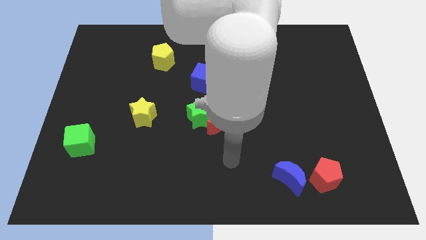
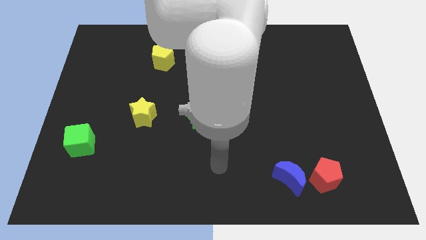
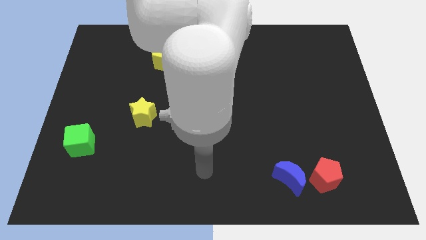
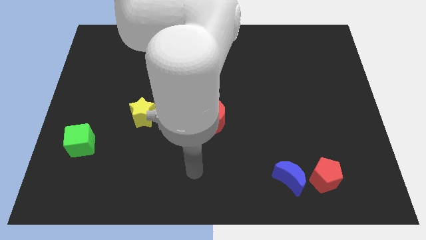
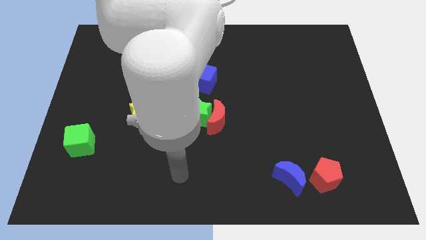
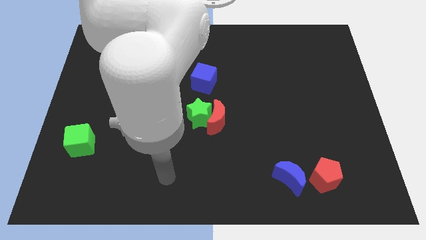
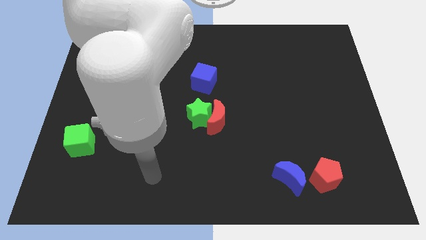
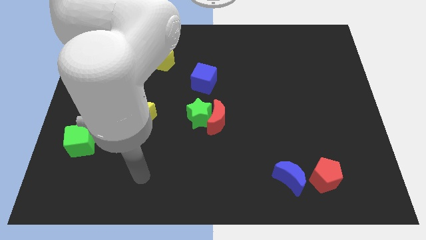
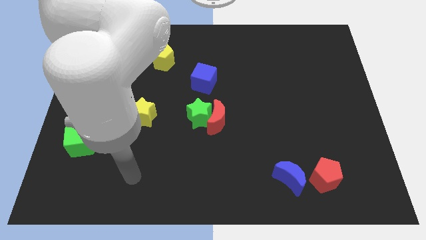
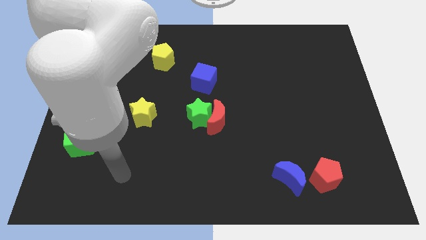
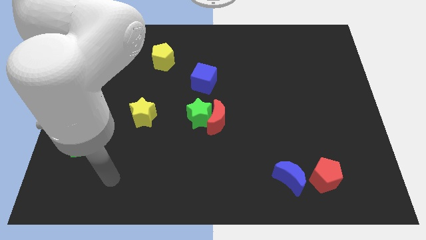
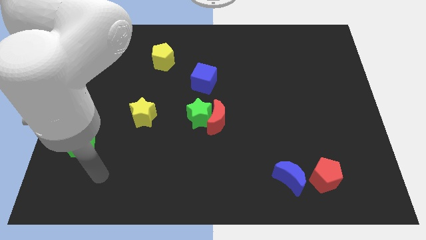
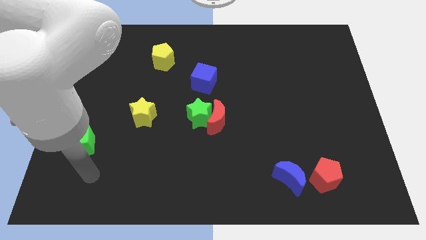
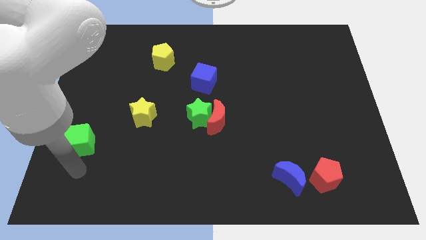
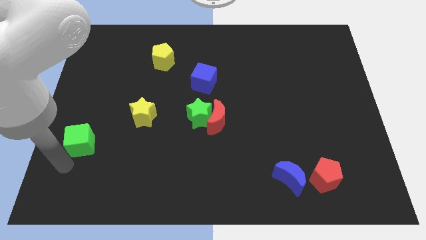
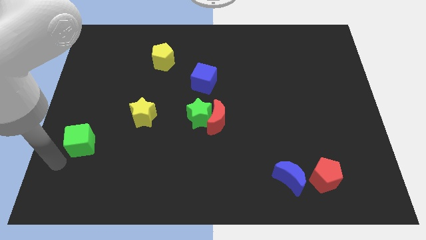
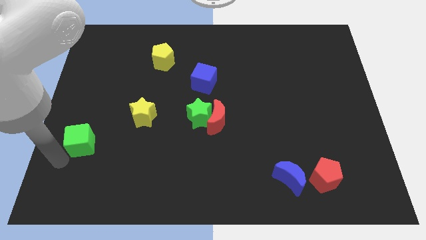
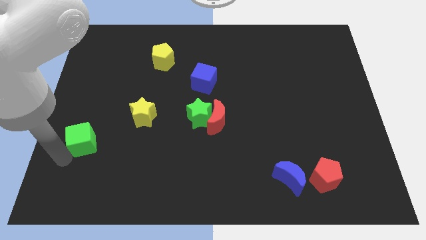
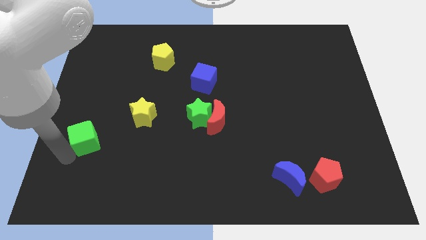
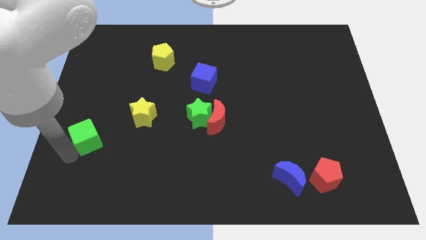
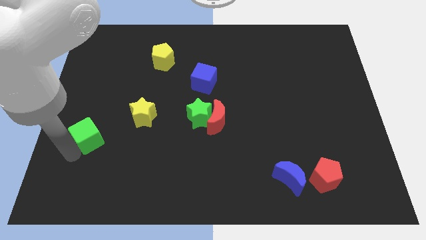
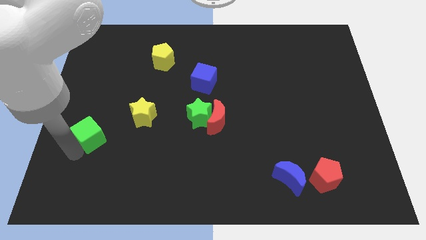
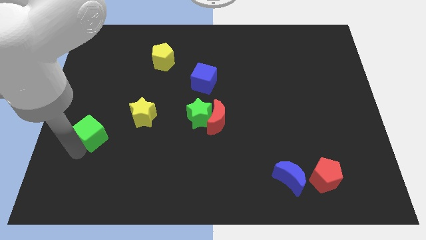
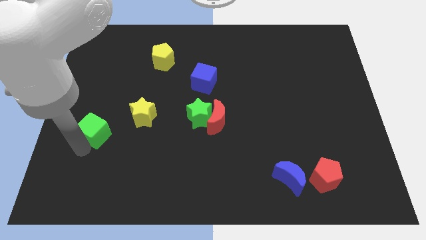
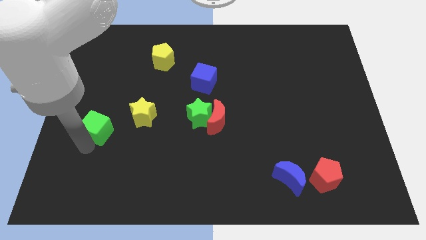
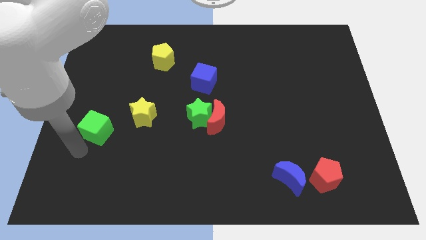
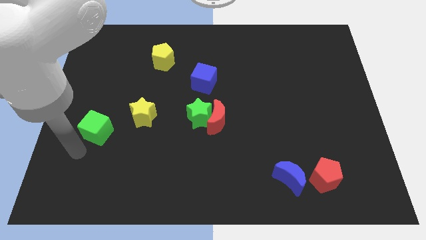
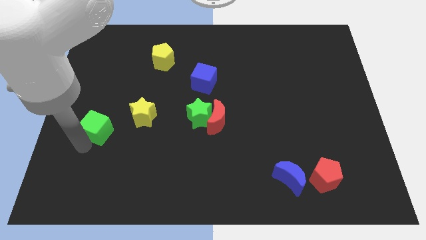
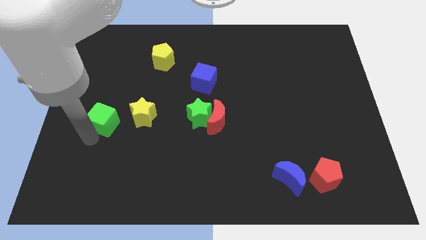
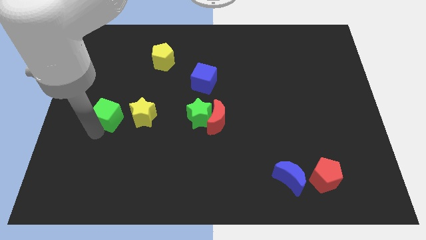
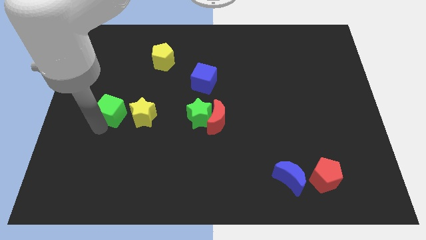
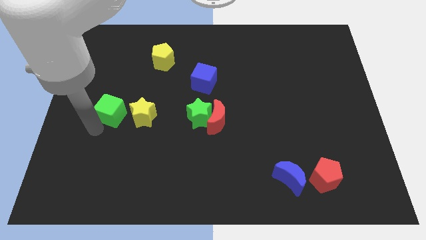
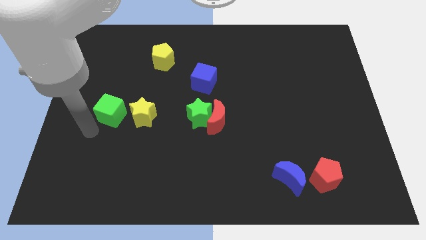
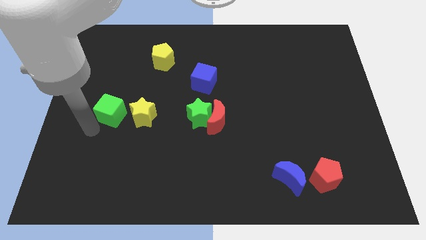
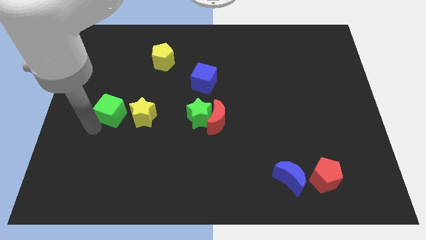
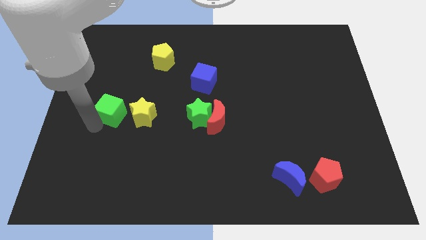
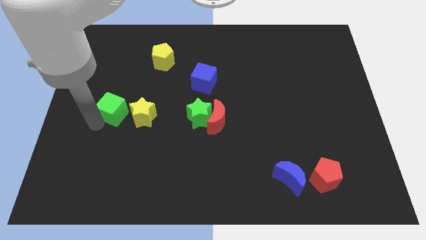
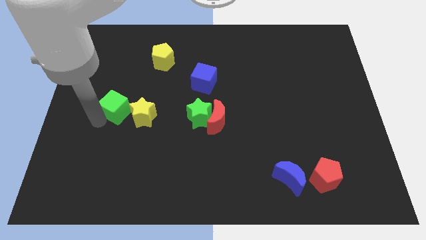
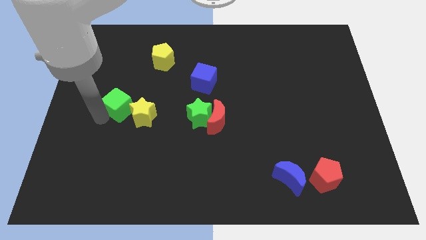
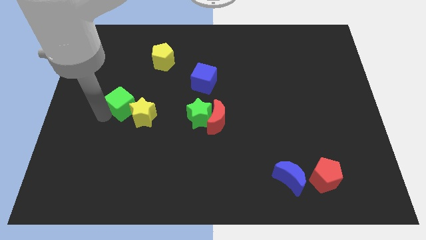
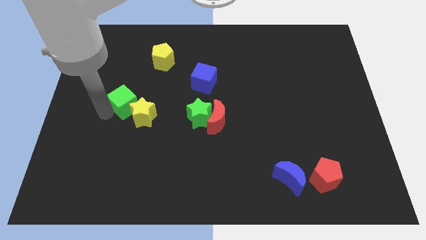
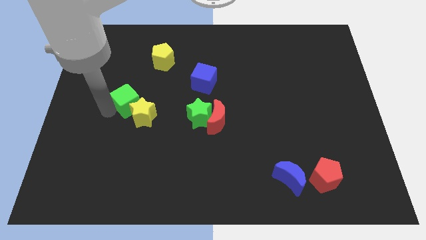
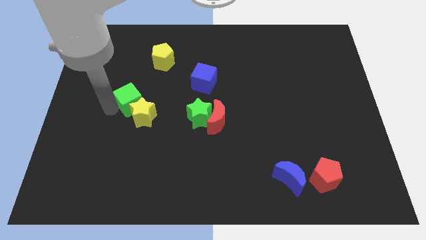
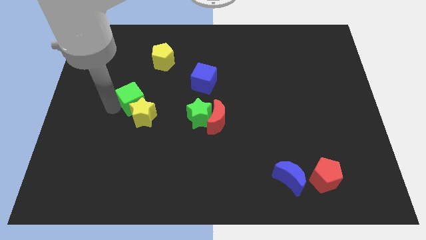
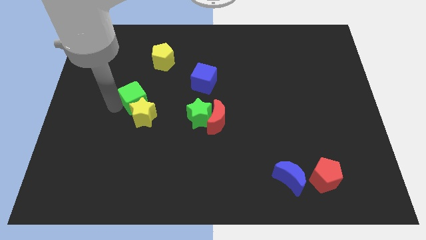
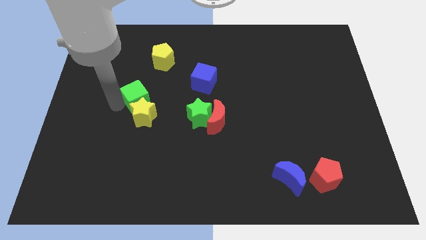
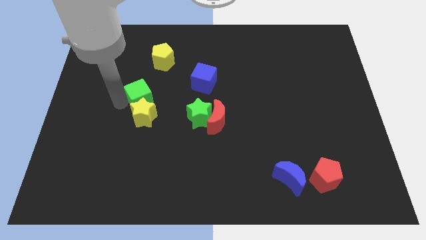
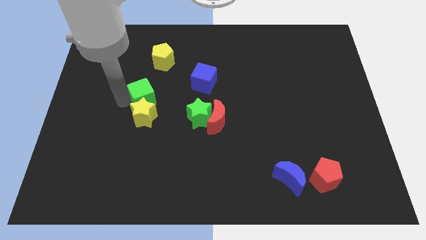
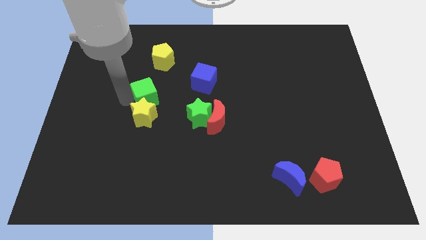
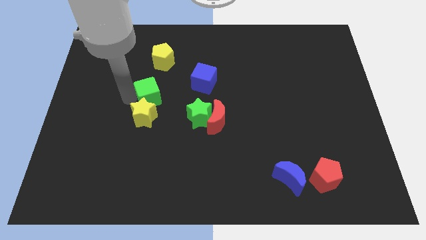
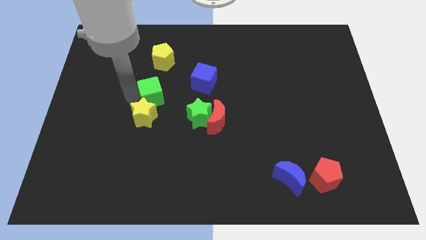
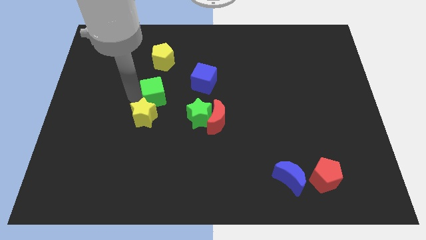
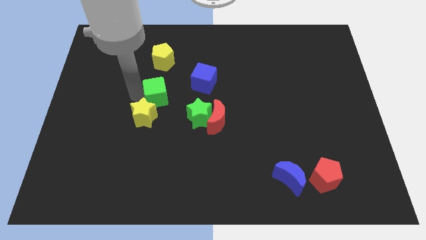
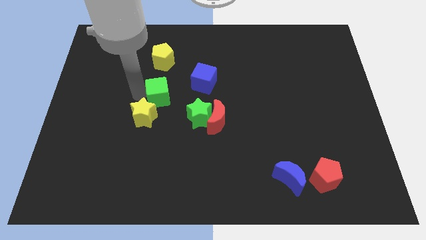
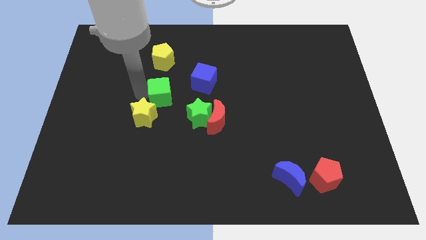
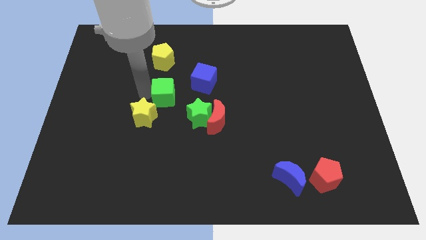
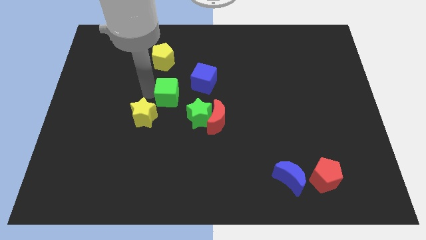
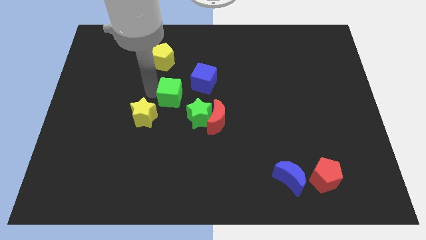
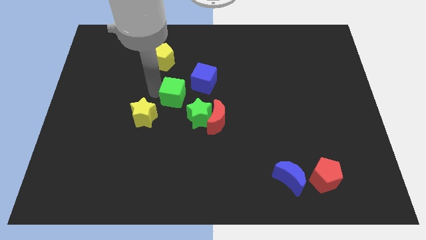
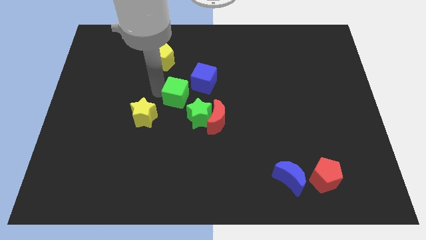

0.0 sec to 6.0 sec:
move the green cube diagonally up and to the left of the red moon

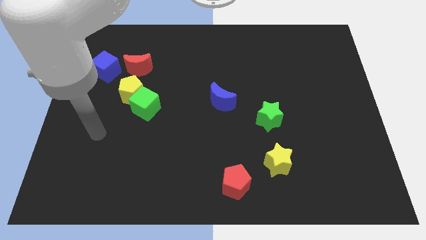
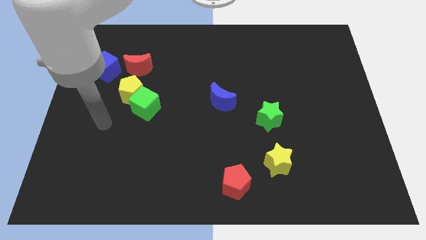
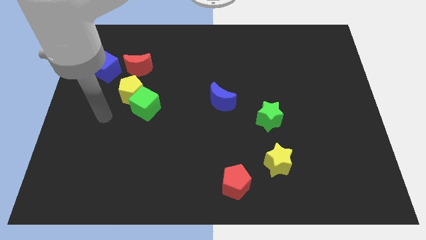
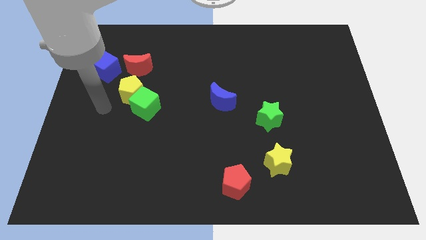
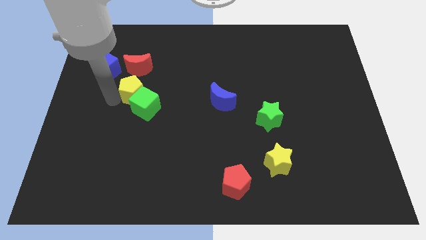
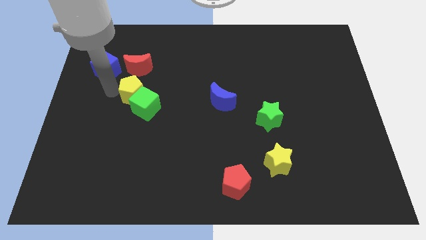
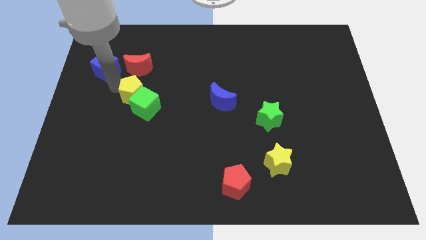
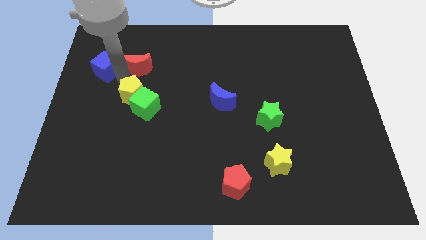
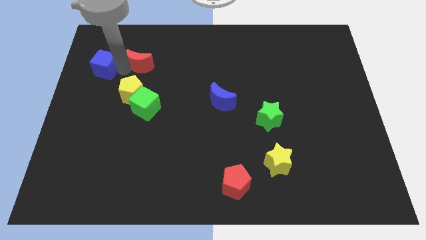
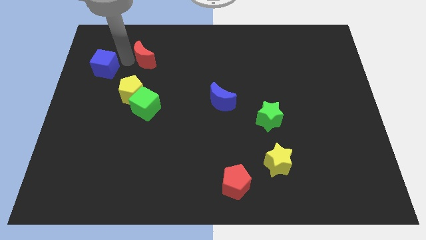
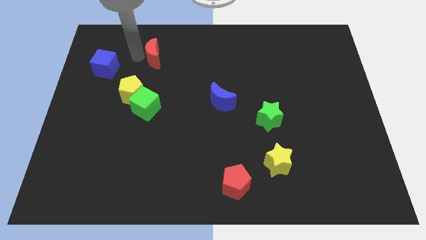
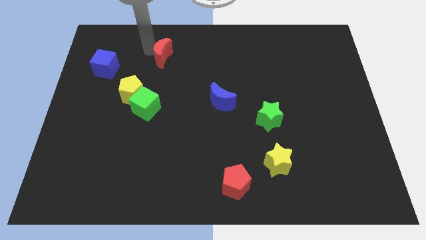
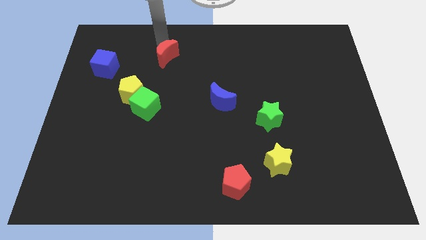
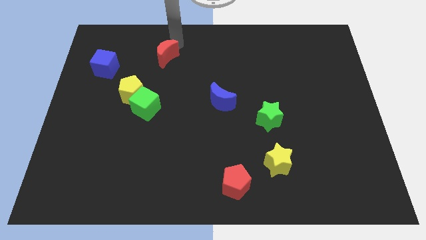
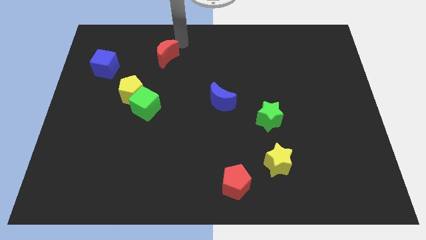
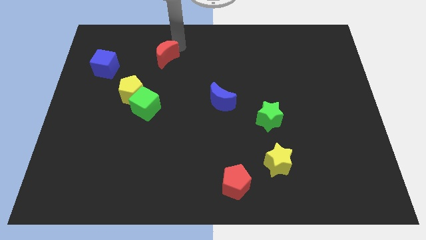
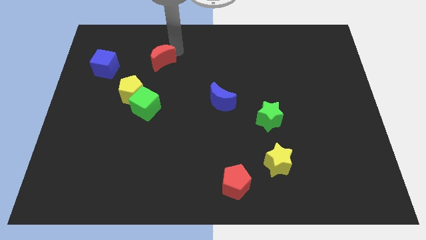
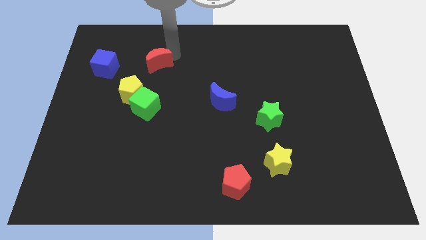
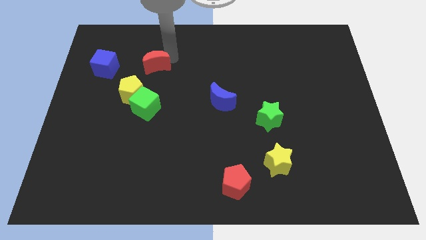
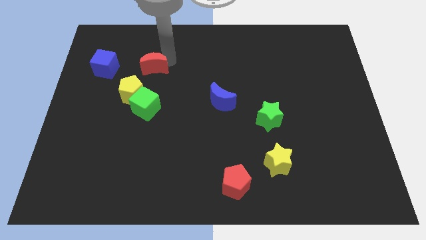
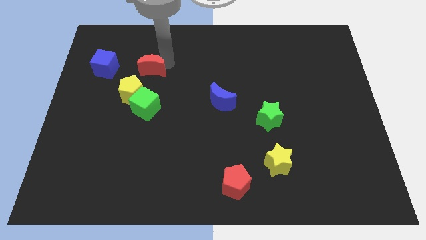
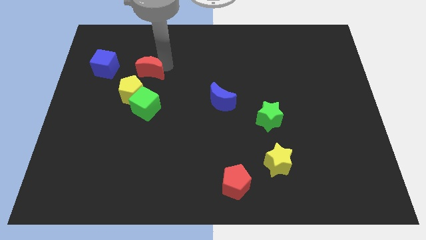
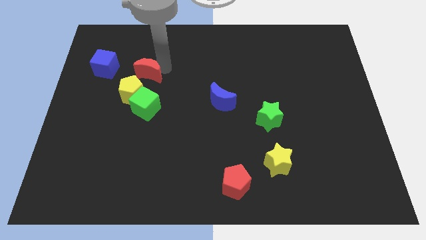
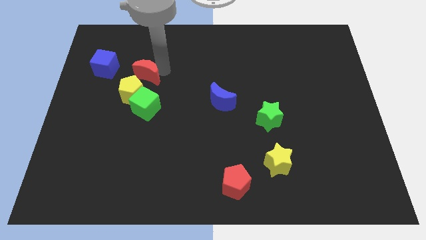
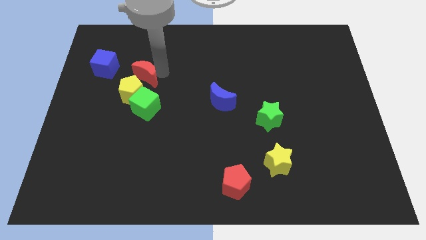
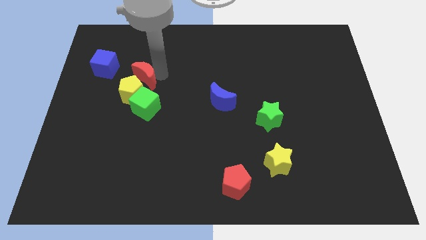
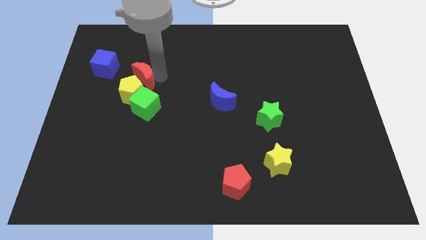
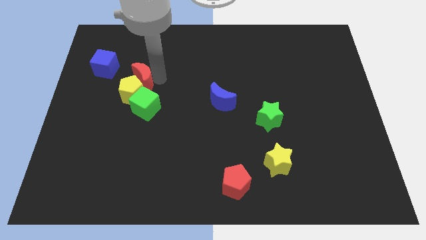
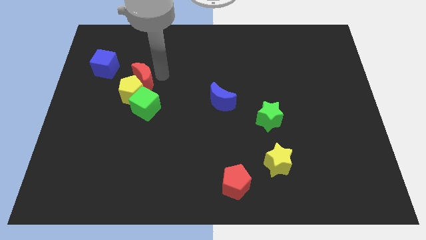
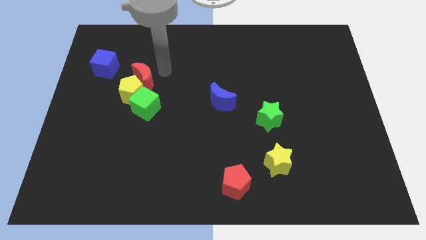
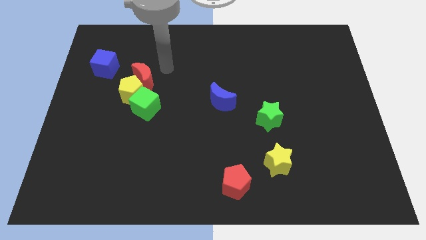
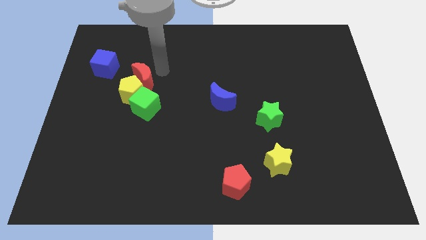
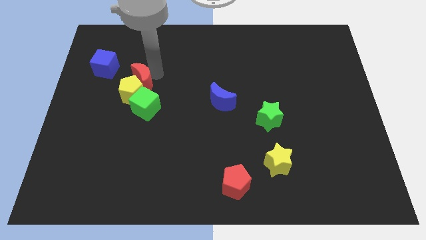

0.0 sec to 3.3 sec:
put the red moon diagonally up and to the left of the green cube
